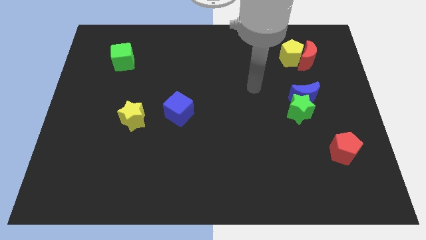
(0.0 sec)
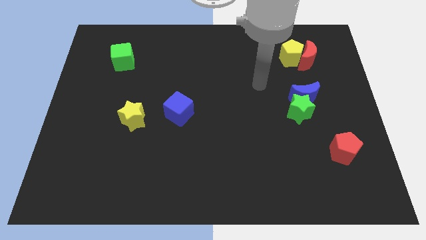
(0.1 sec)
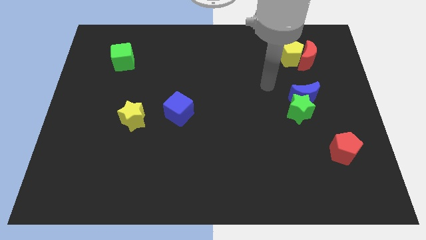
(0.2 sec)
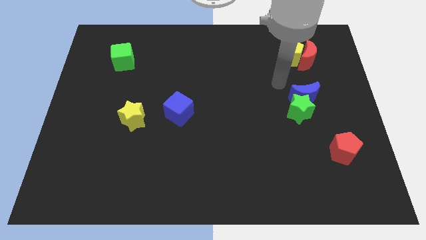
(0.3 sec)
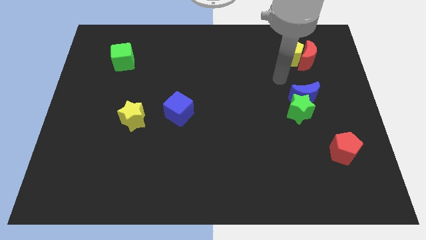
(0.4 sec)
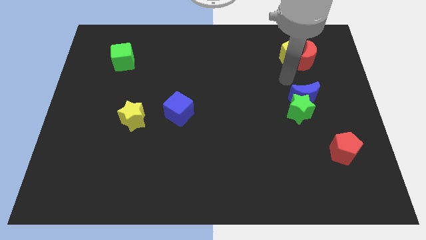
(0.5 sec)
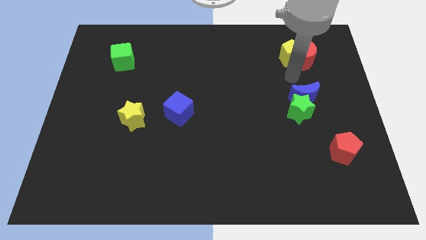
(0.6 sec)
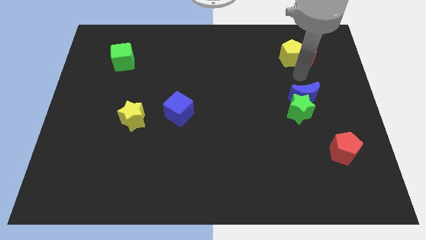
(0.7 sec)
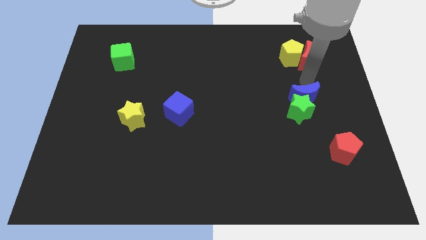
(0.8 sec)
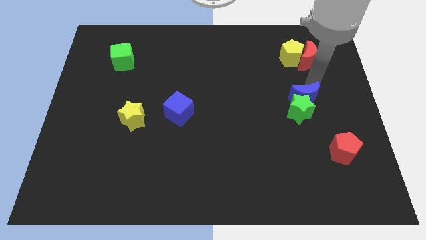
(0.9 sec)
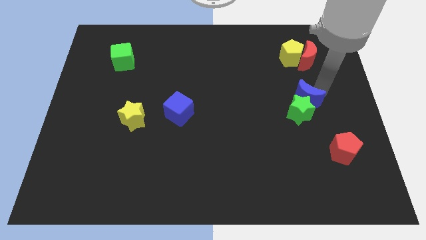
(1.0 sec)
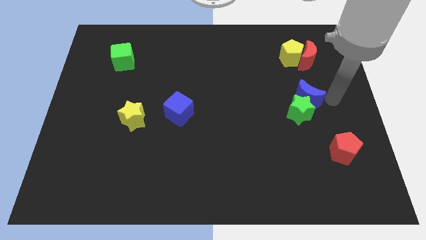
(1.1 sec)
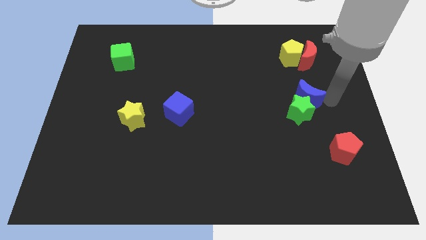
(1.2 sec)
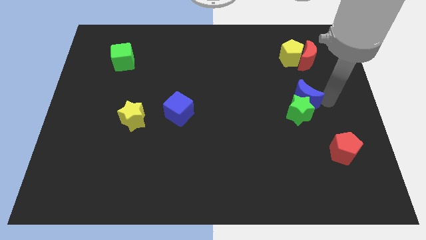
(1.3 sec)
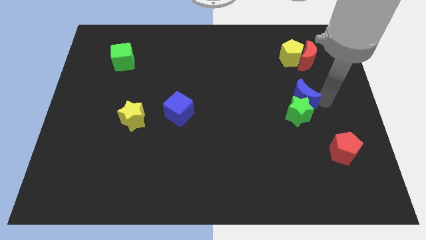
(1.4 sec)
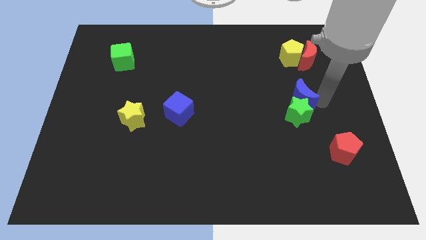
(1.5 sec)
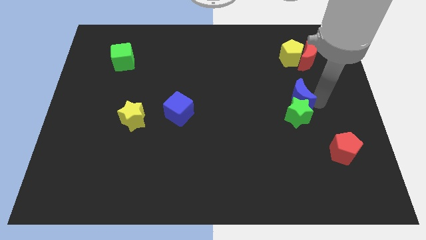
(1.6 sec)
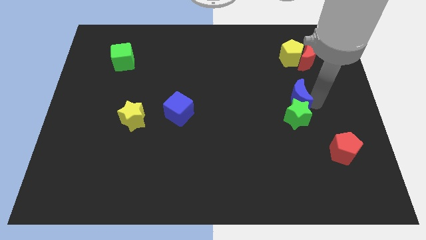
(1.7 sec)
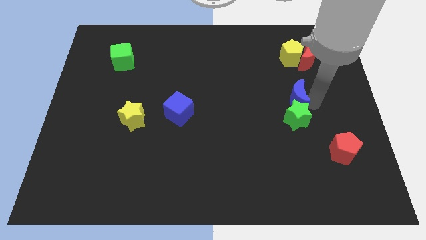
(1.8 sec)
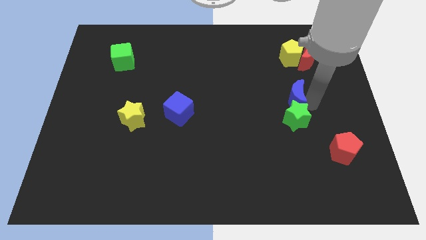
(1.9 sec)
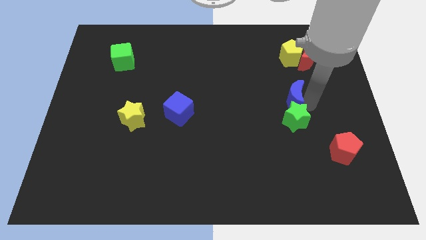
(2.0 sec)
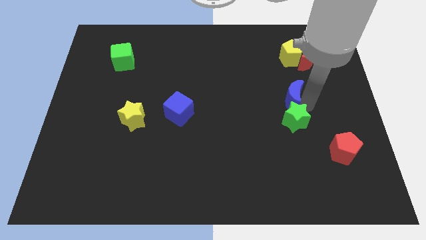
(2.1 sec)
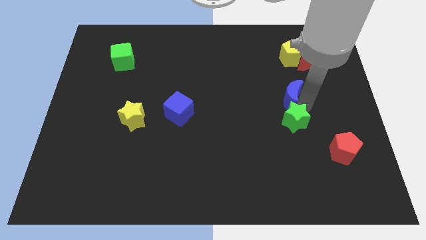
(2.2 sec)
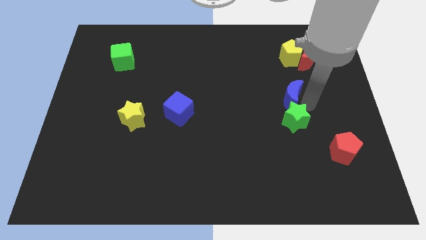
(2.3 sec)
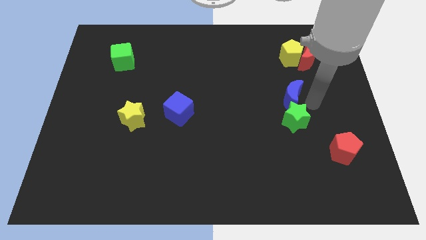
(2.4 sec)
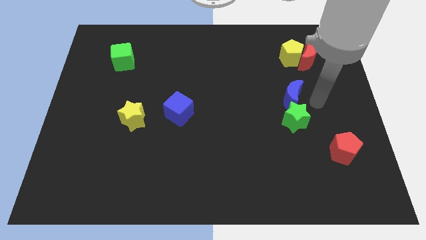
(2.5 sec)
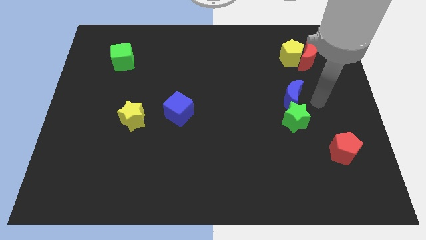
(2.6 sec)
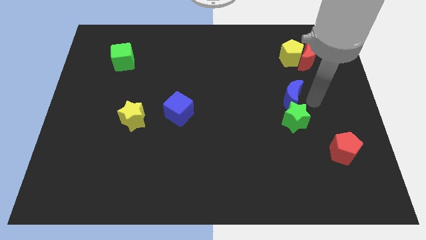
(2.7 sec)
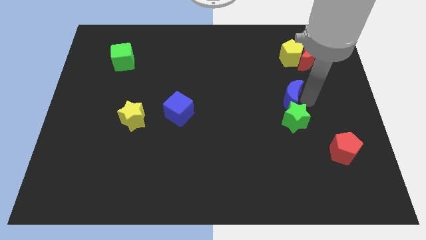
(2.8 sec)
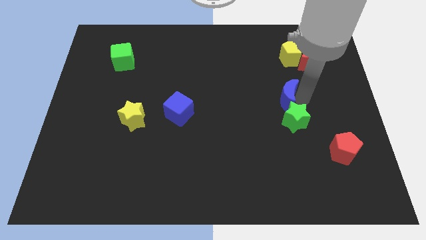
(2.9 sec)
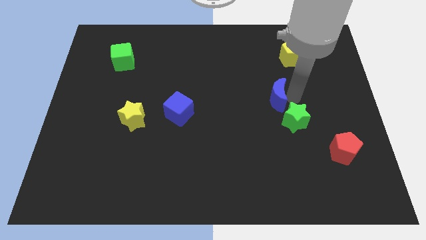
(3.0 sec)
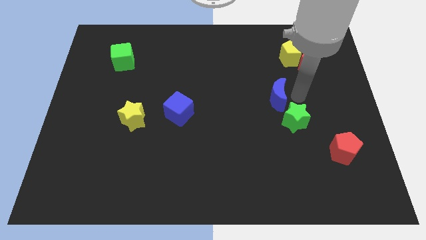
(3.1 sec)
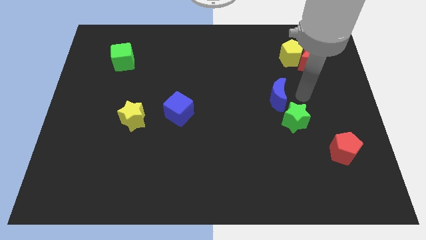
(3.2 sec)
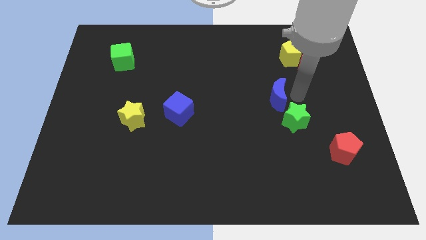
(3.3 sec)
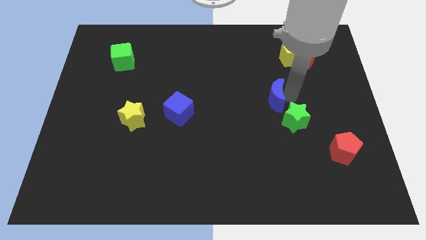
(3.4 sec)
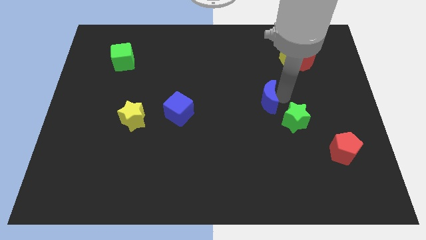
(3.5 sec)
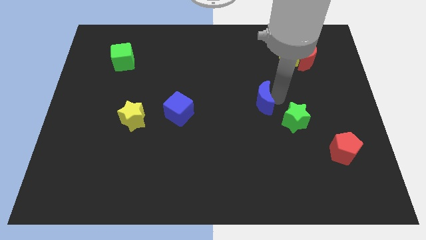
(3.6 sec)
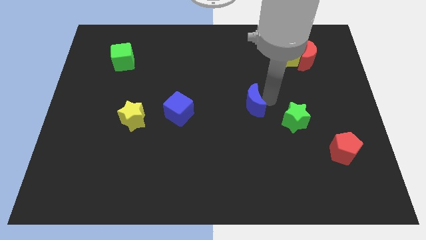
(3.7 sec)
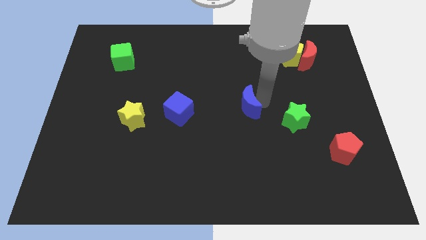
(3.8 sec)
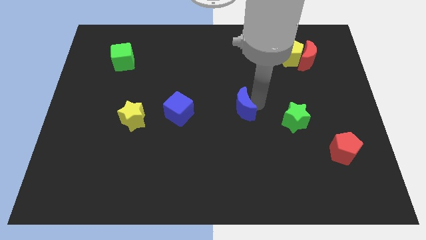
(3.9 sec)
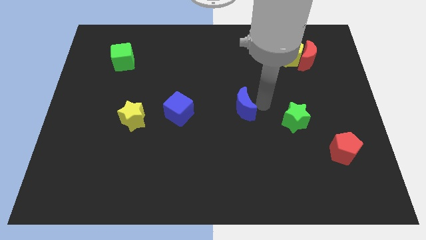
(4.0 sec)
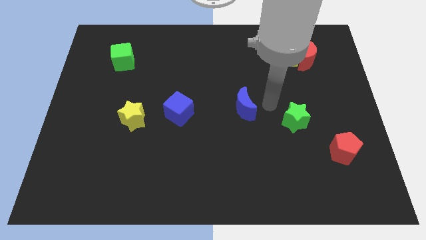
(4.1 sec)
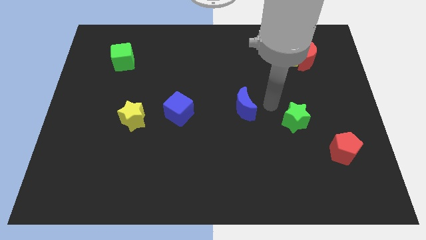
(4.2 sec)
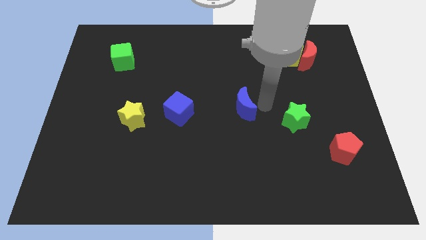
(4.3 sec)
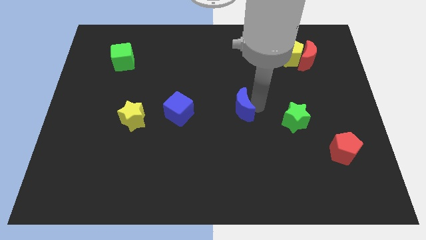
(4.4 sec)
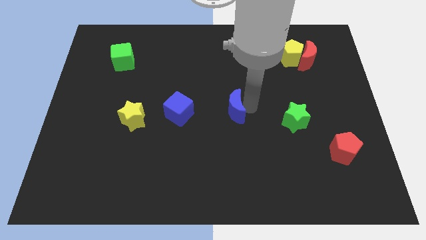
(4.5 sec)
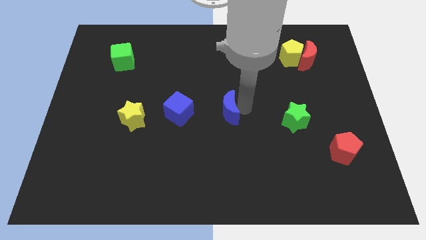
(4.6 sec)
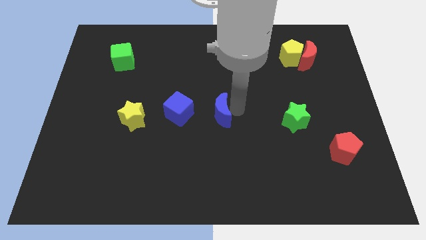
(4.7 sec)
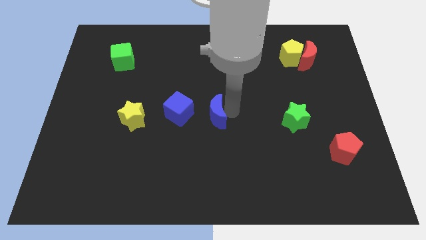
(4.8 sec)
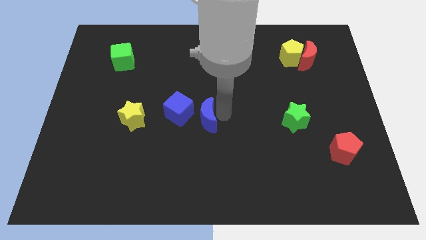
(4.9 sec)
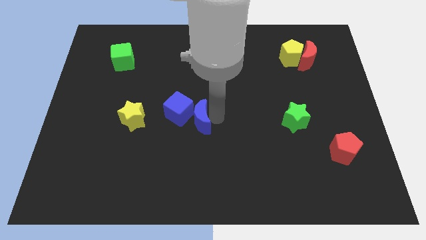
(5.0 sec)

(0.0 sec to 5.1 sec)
push the blue moon close to the blue cube

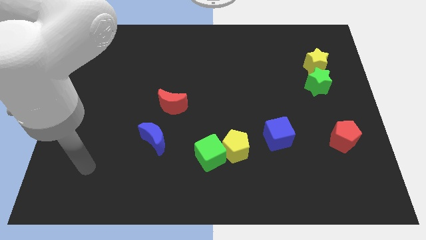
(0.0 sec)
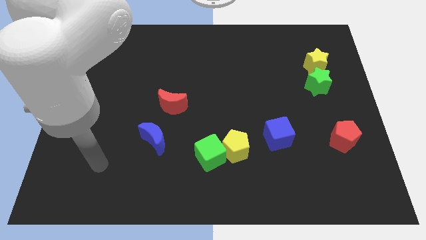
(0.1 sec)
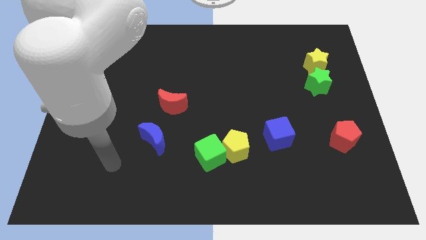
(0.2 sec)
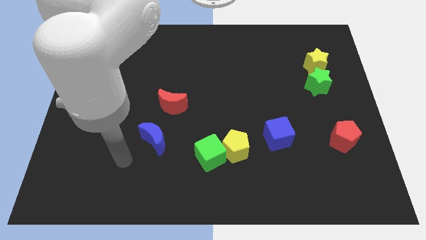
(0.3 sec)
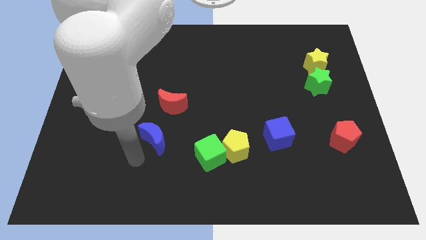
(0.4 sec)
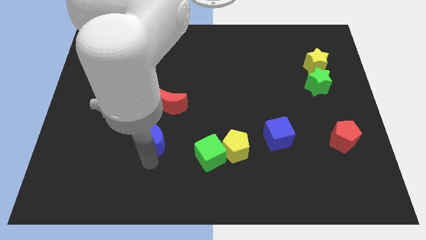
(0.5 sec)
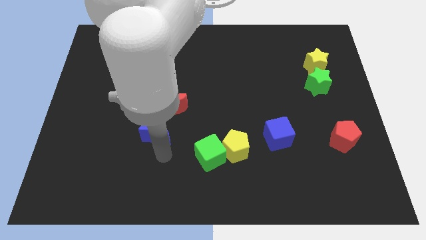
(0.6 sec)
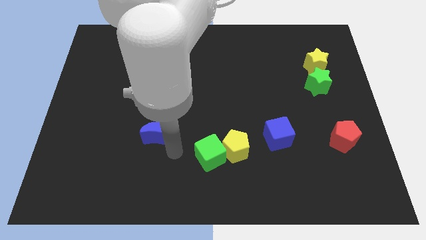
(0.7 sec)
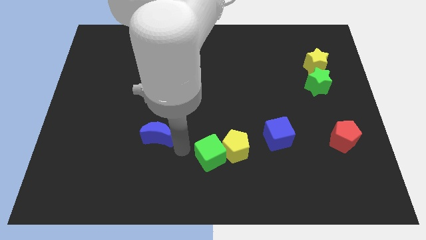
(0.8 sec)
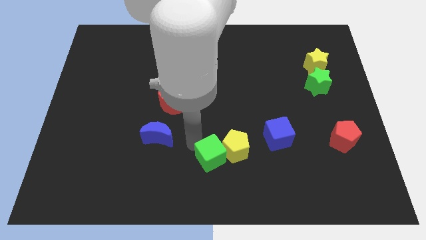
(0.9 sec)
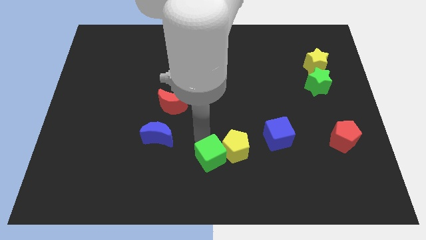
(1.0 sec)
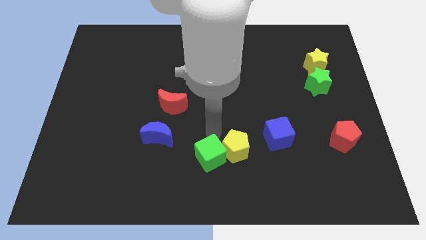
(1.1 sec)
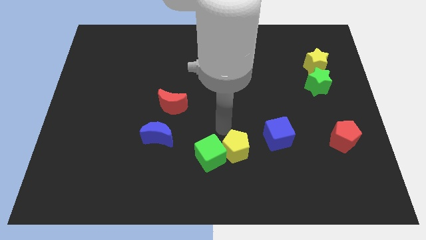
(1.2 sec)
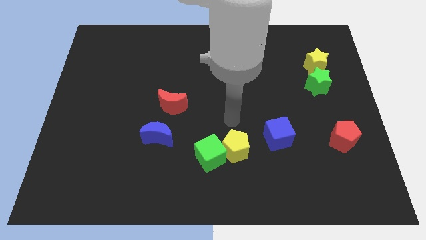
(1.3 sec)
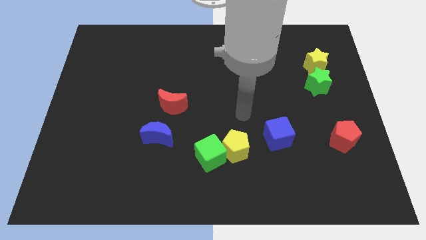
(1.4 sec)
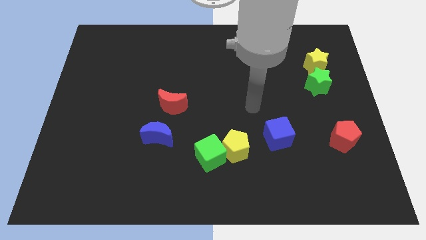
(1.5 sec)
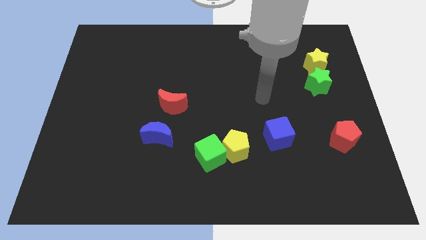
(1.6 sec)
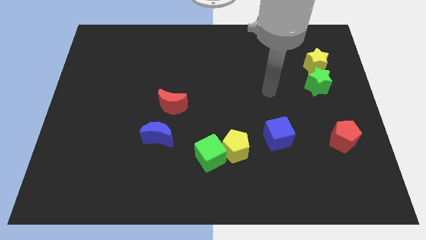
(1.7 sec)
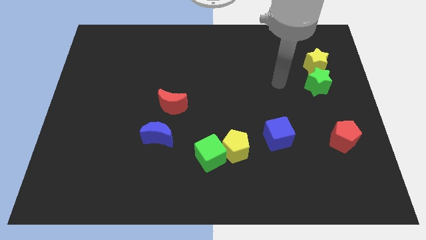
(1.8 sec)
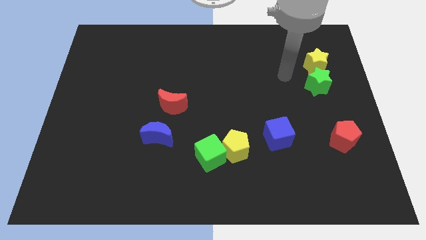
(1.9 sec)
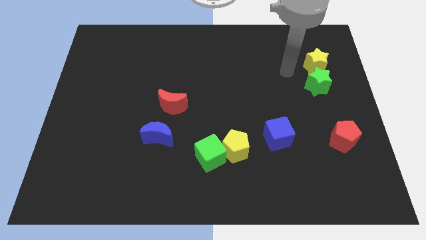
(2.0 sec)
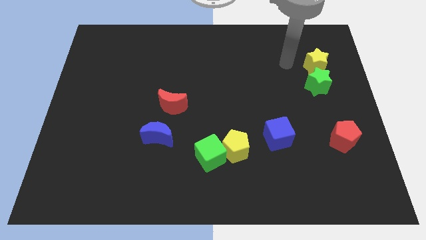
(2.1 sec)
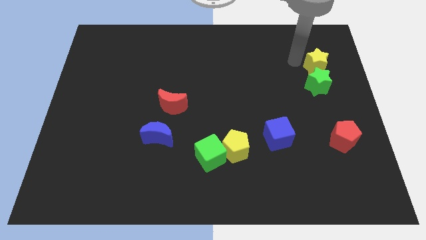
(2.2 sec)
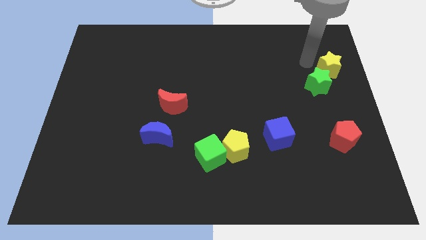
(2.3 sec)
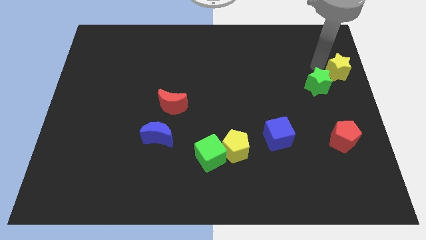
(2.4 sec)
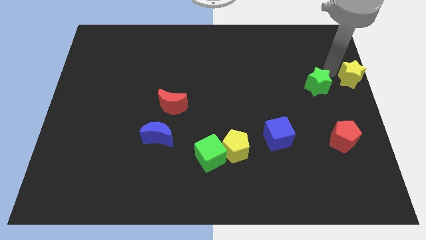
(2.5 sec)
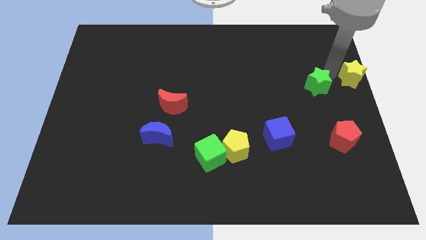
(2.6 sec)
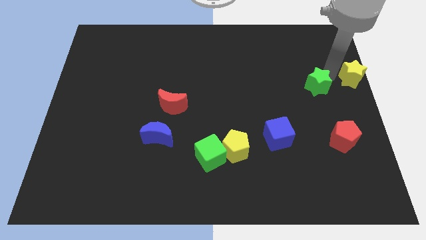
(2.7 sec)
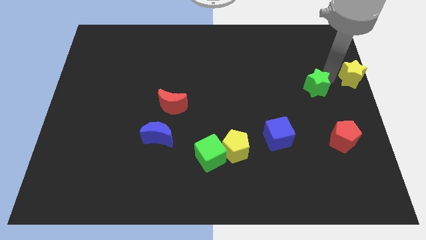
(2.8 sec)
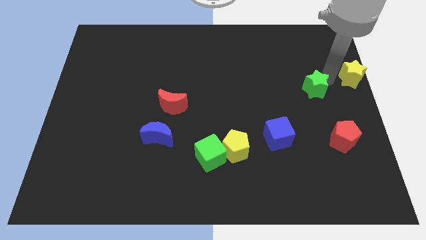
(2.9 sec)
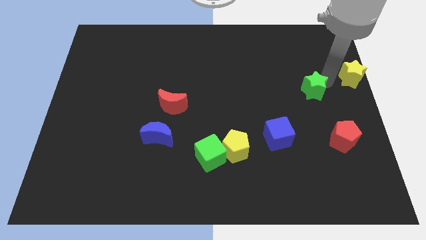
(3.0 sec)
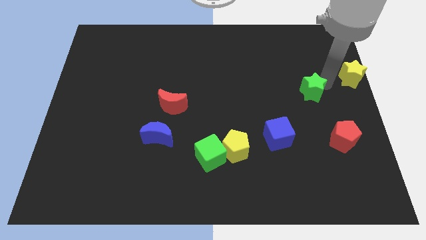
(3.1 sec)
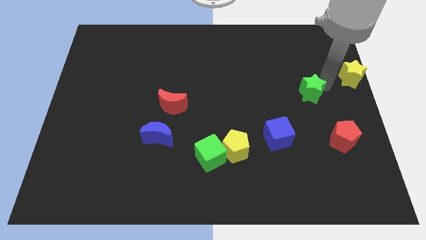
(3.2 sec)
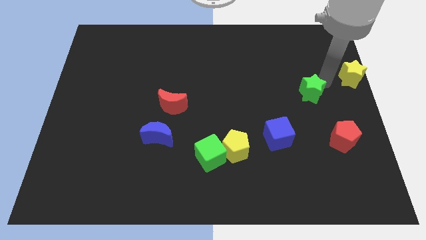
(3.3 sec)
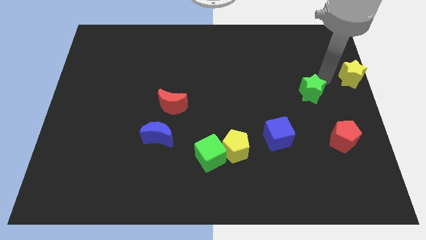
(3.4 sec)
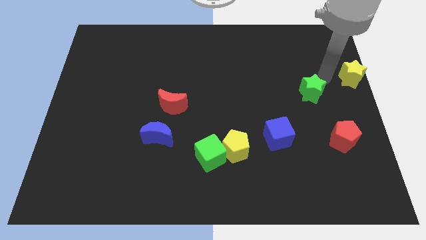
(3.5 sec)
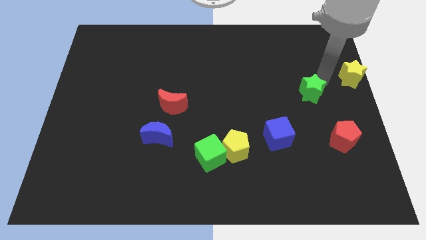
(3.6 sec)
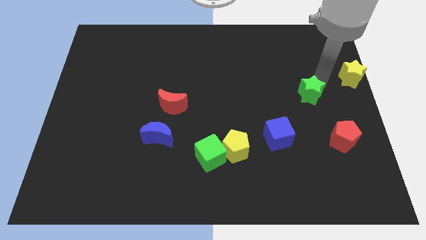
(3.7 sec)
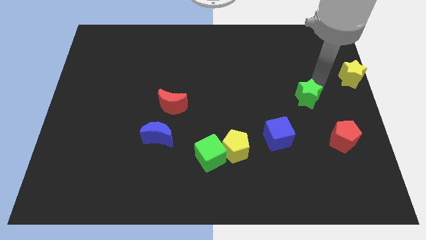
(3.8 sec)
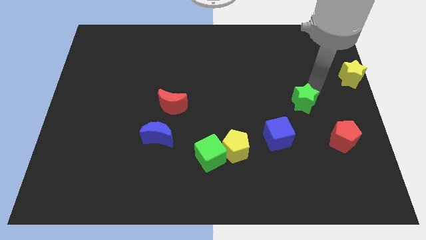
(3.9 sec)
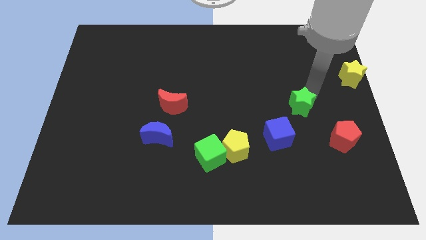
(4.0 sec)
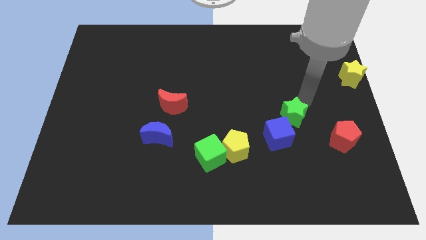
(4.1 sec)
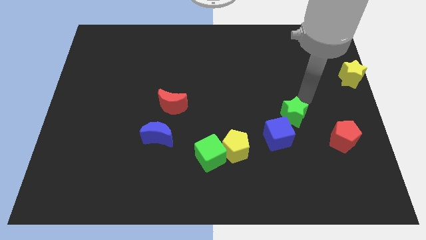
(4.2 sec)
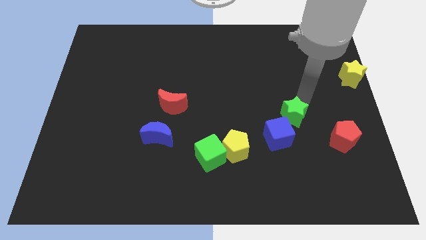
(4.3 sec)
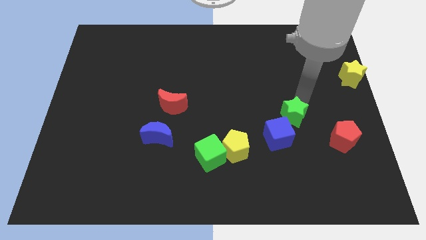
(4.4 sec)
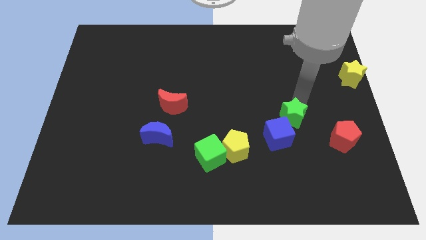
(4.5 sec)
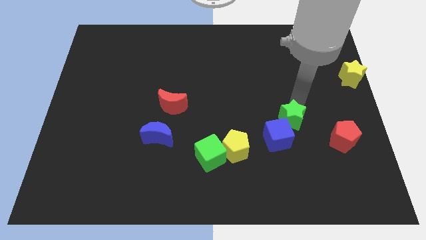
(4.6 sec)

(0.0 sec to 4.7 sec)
put the green star next to the blue cube
